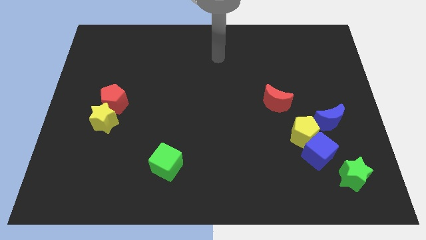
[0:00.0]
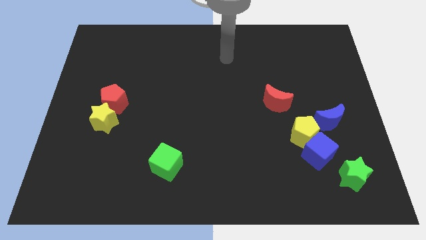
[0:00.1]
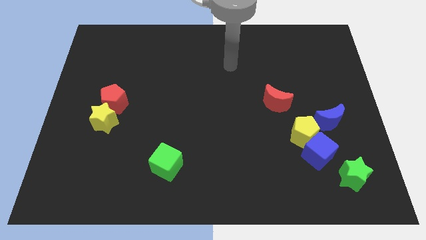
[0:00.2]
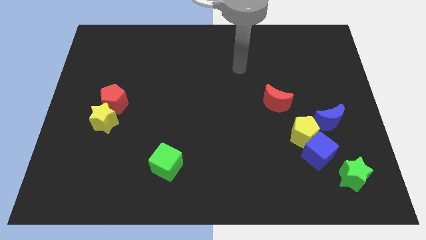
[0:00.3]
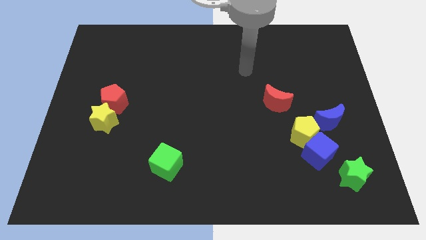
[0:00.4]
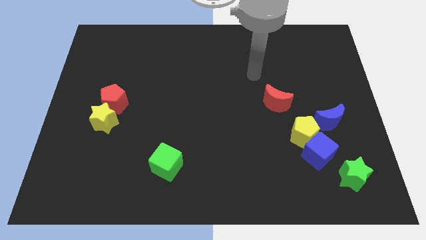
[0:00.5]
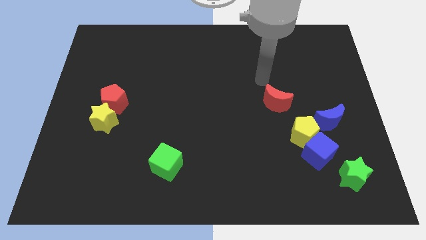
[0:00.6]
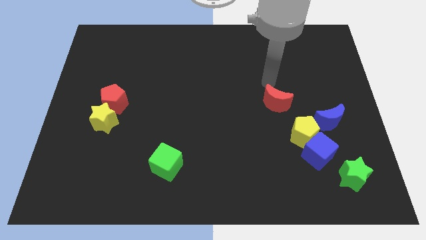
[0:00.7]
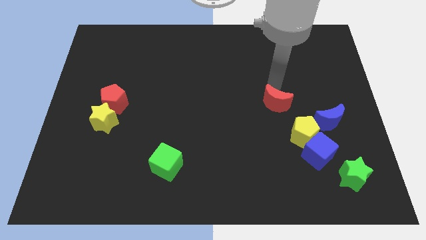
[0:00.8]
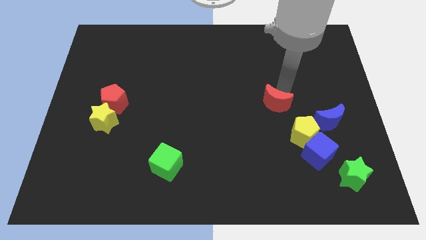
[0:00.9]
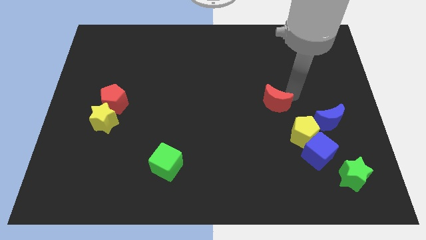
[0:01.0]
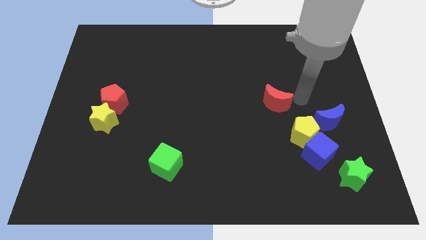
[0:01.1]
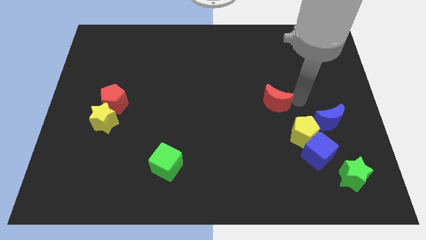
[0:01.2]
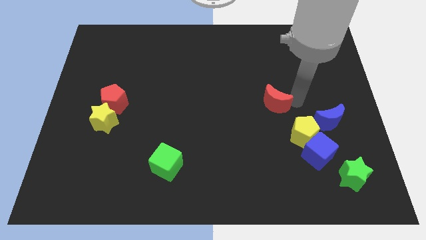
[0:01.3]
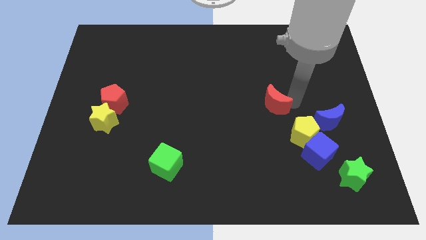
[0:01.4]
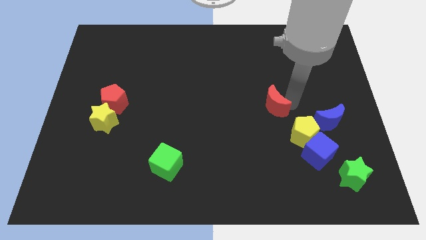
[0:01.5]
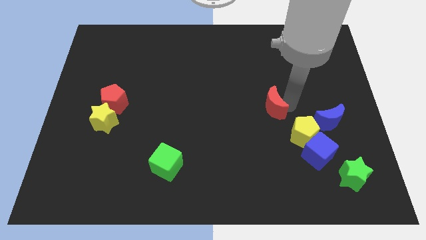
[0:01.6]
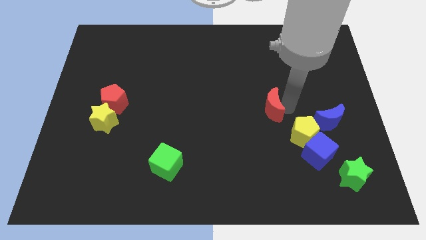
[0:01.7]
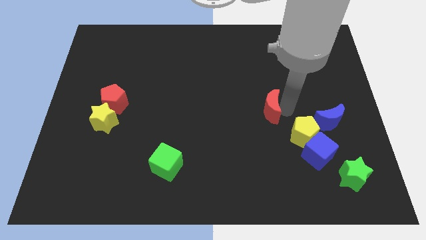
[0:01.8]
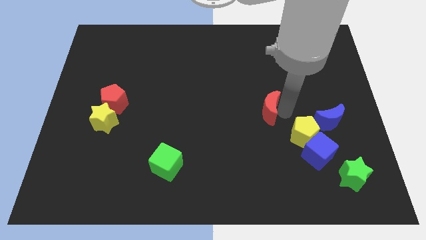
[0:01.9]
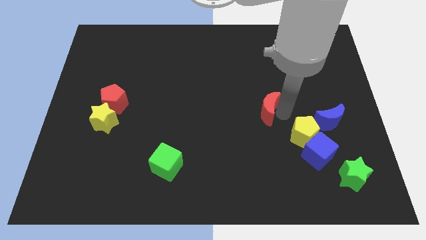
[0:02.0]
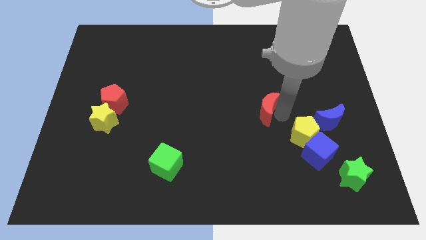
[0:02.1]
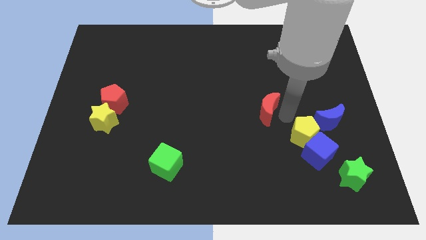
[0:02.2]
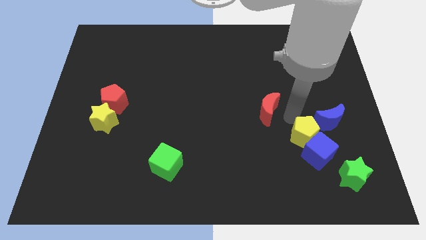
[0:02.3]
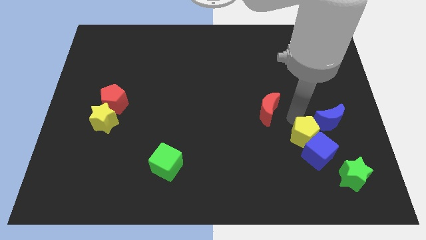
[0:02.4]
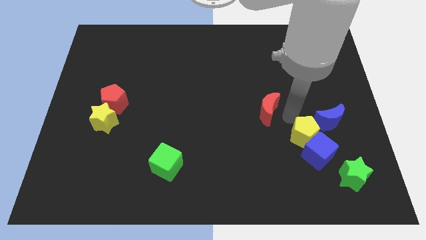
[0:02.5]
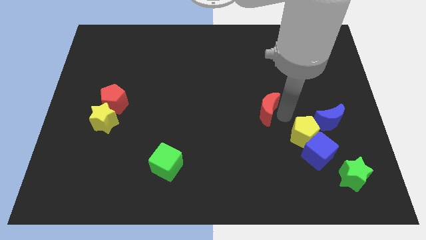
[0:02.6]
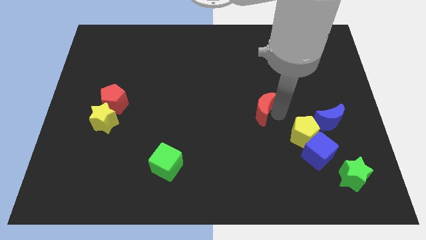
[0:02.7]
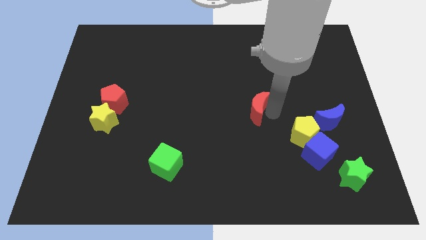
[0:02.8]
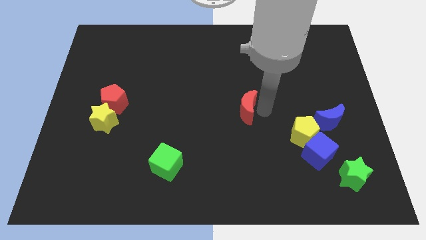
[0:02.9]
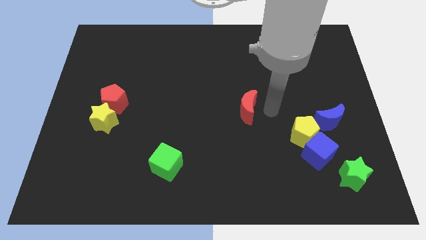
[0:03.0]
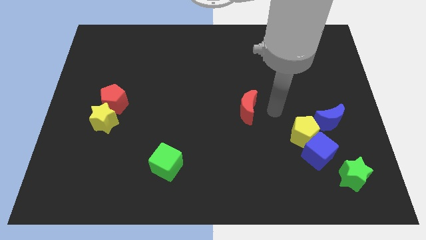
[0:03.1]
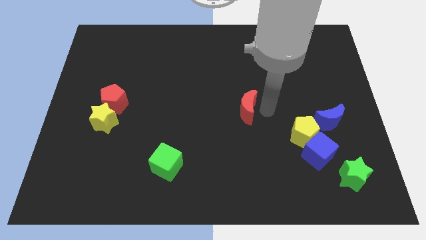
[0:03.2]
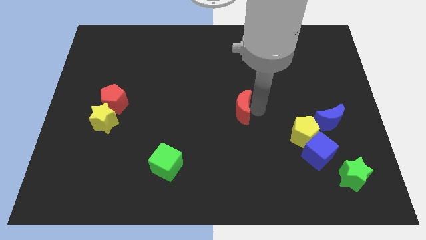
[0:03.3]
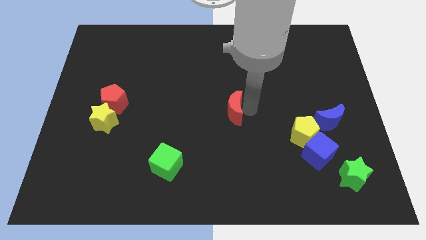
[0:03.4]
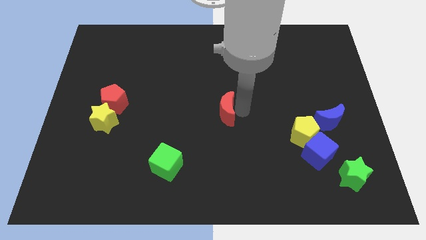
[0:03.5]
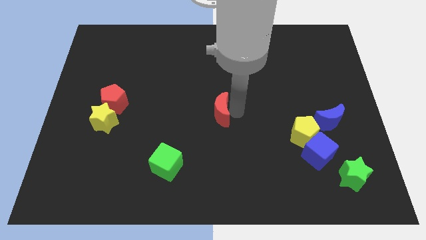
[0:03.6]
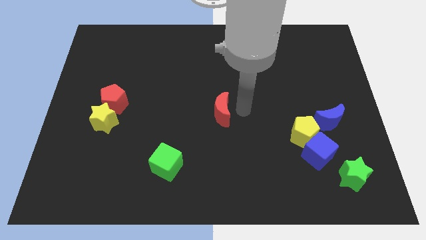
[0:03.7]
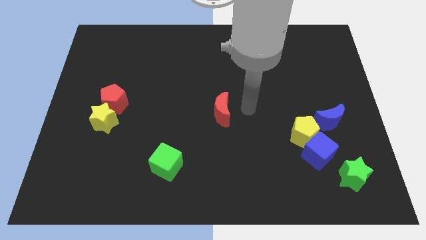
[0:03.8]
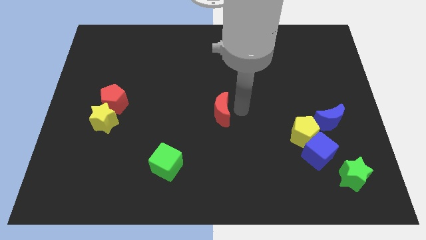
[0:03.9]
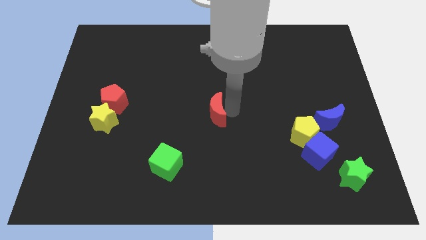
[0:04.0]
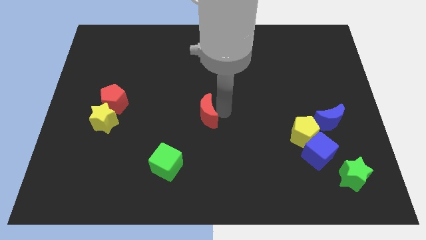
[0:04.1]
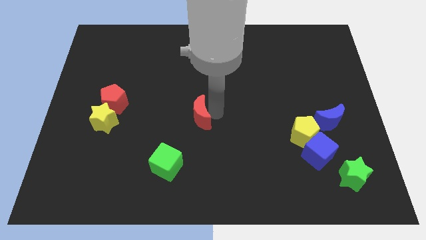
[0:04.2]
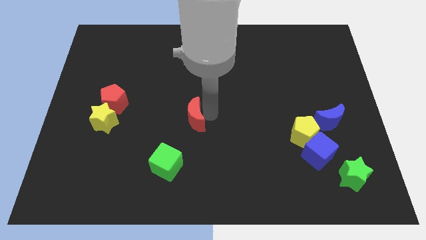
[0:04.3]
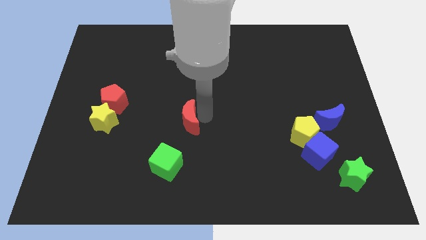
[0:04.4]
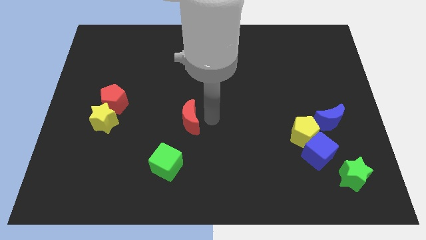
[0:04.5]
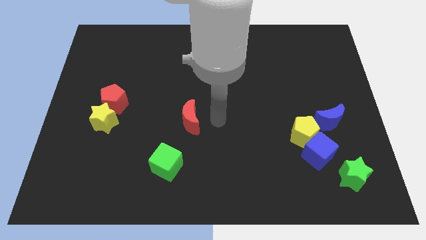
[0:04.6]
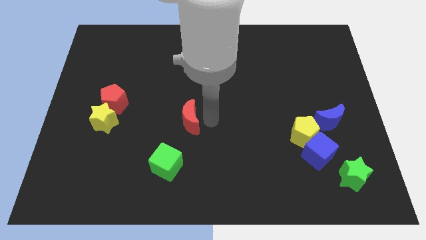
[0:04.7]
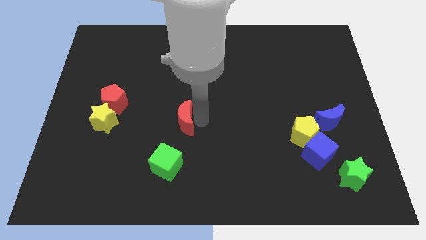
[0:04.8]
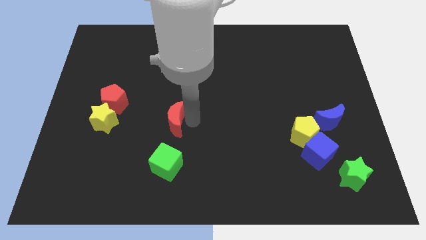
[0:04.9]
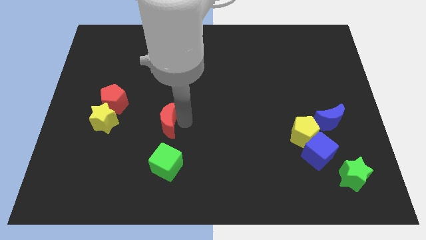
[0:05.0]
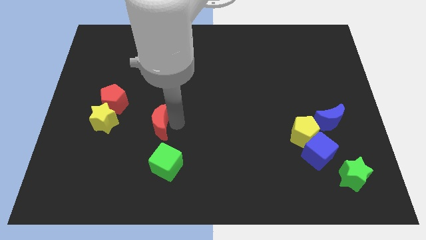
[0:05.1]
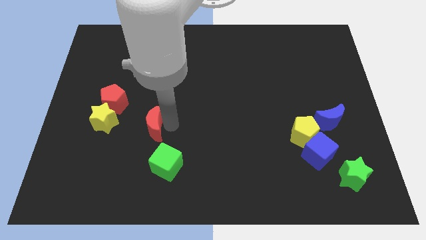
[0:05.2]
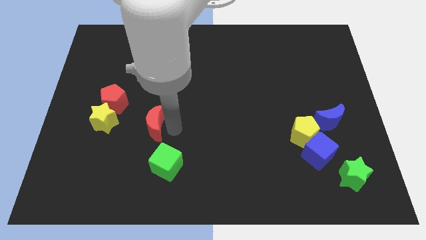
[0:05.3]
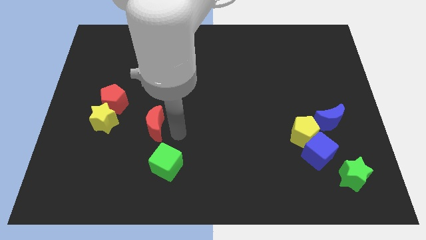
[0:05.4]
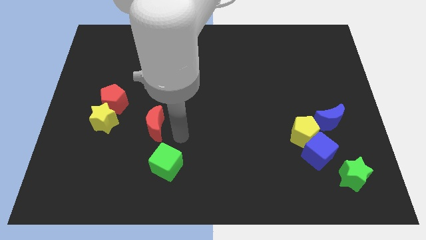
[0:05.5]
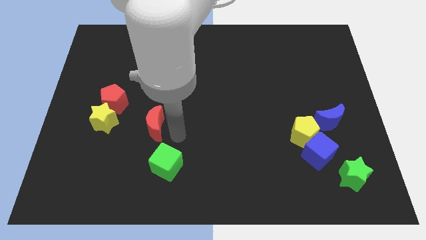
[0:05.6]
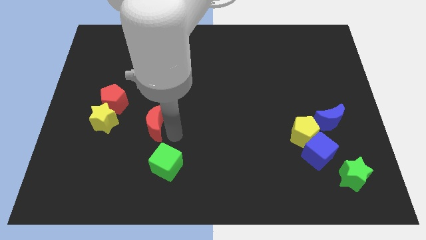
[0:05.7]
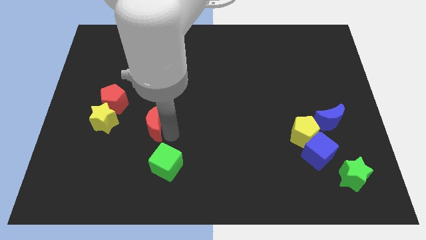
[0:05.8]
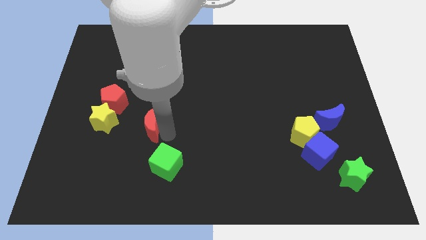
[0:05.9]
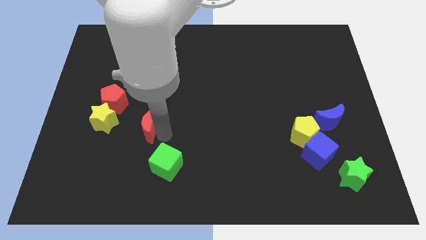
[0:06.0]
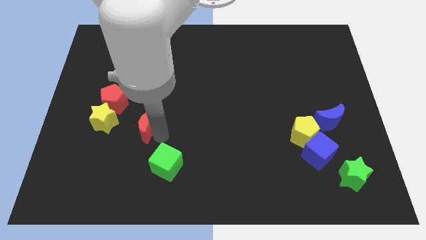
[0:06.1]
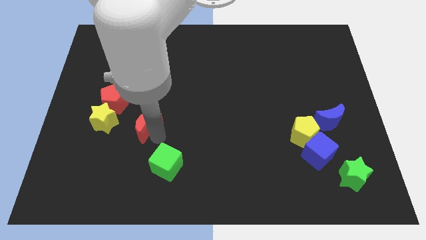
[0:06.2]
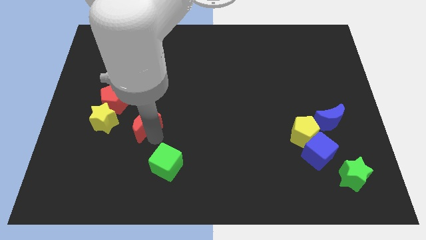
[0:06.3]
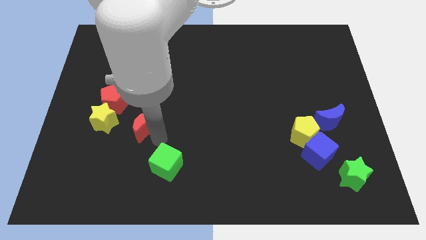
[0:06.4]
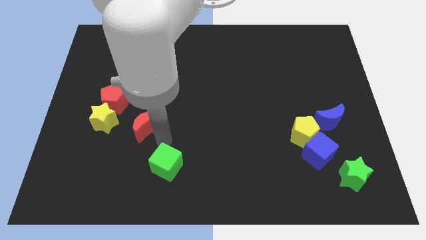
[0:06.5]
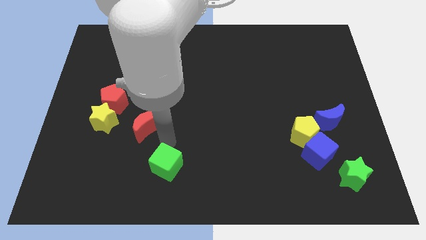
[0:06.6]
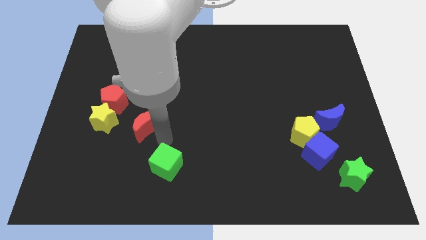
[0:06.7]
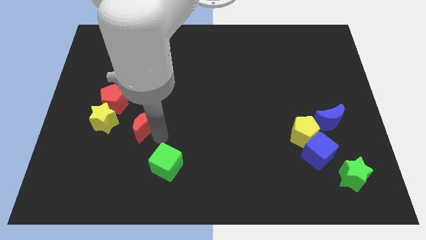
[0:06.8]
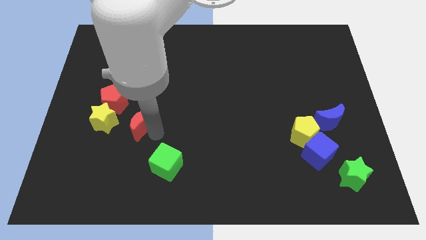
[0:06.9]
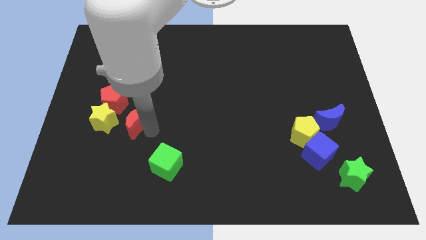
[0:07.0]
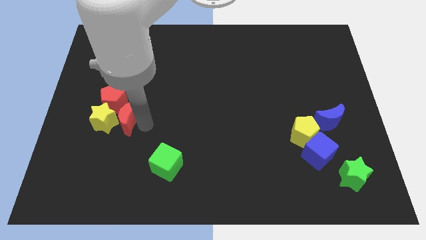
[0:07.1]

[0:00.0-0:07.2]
move the red moon to the yellow star

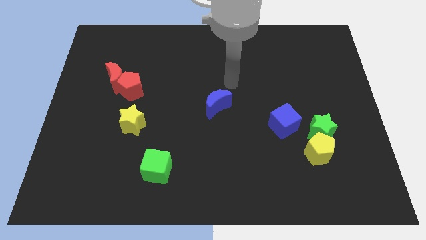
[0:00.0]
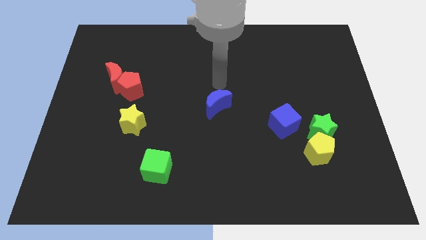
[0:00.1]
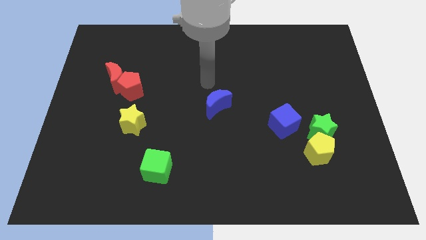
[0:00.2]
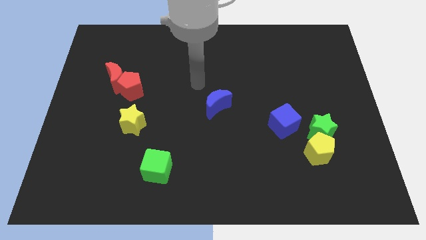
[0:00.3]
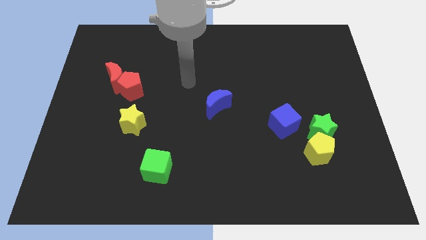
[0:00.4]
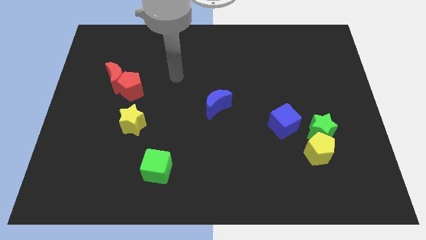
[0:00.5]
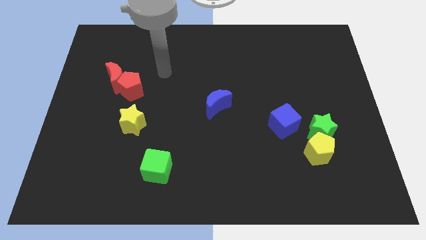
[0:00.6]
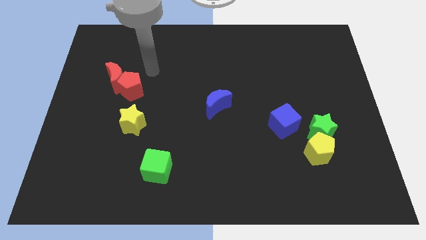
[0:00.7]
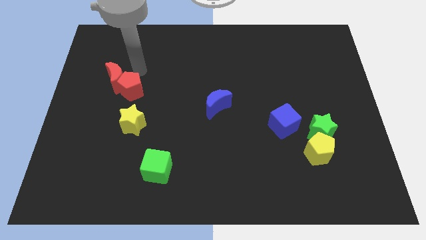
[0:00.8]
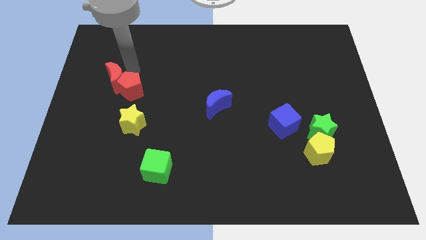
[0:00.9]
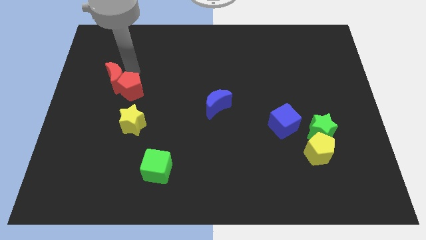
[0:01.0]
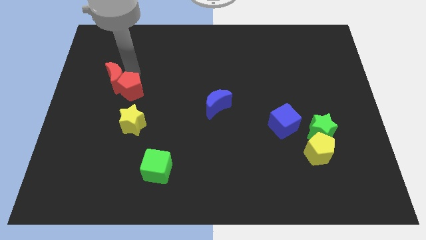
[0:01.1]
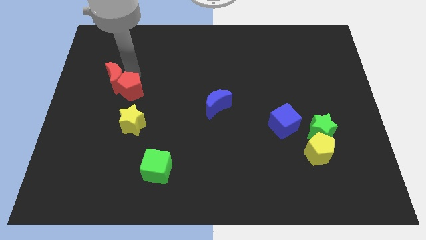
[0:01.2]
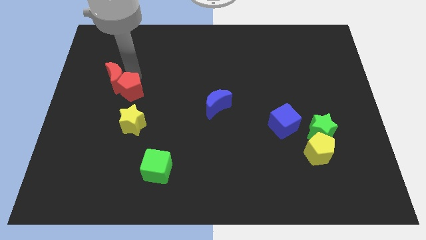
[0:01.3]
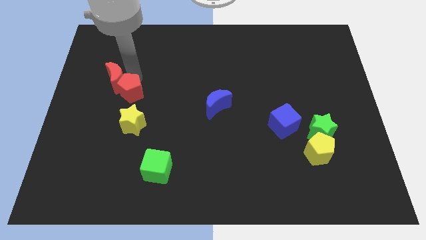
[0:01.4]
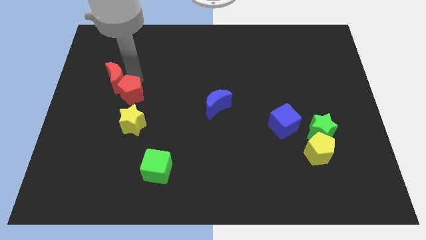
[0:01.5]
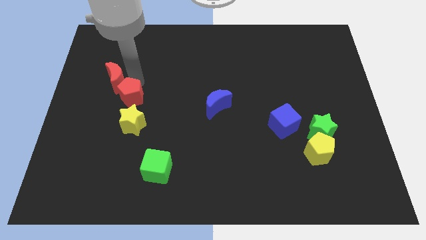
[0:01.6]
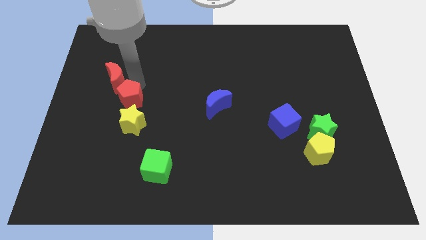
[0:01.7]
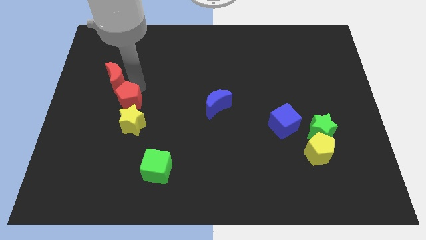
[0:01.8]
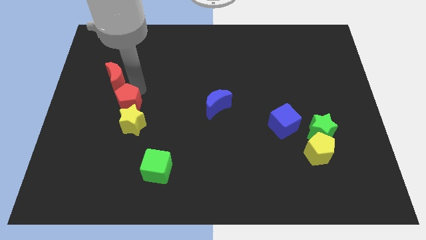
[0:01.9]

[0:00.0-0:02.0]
push the red pentagon close to the yellow star
